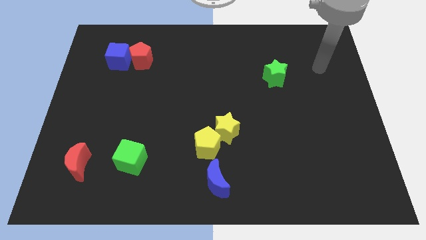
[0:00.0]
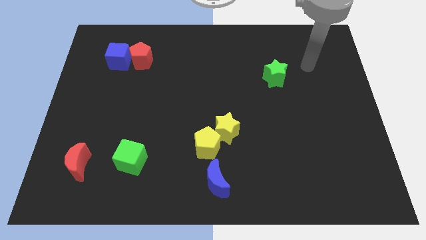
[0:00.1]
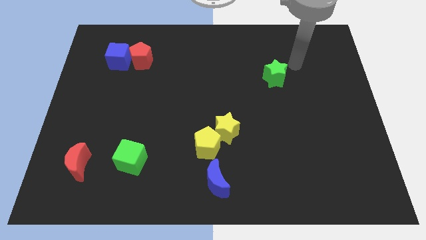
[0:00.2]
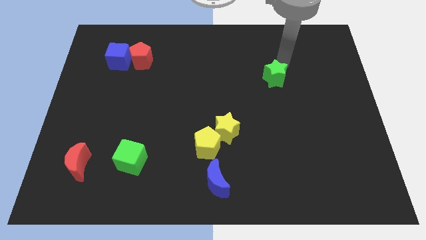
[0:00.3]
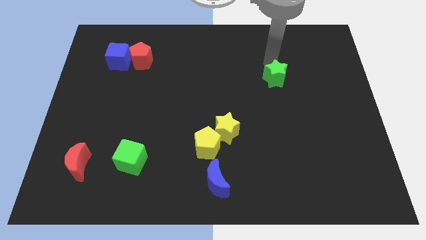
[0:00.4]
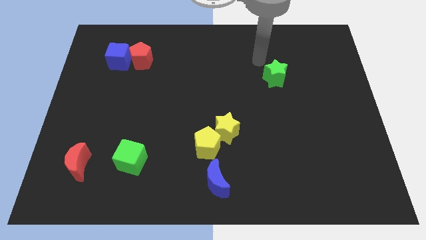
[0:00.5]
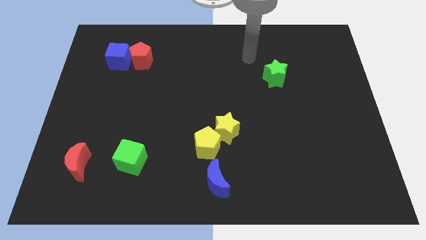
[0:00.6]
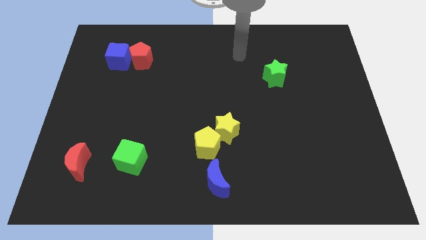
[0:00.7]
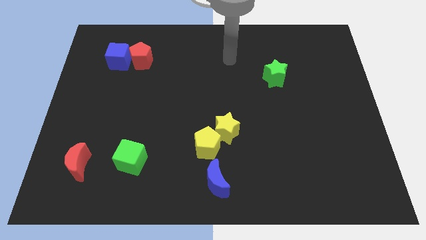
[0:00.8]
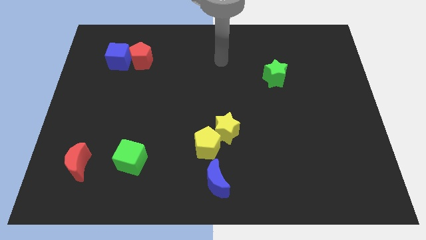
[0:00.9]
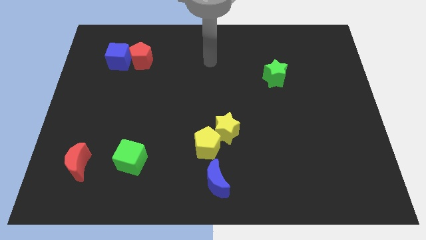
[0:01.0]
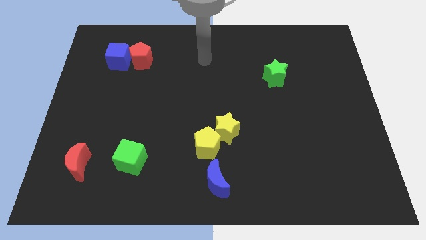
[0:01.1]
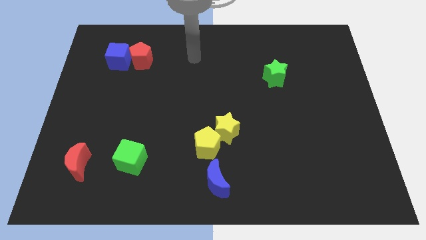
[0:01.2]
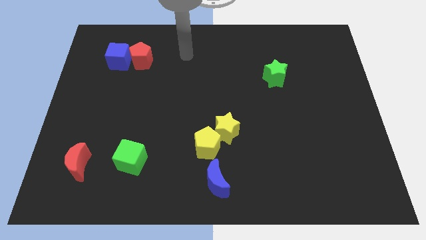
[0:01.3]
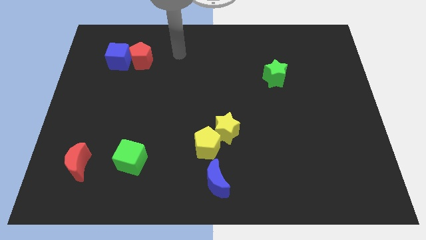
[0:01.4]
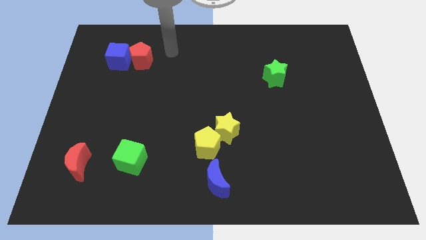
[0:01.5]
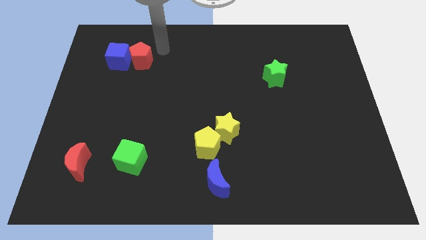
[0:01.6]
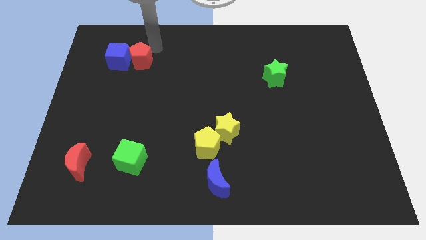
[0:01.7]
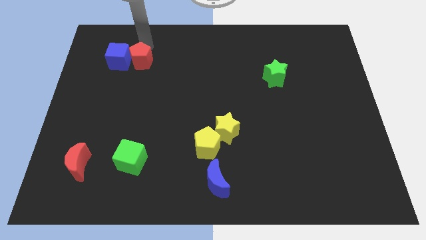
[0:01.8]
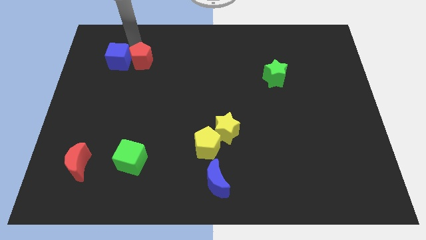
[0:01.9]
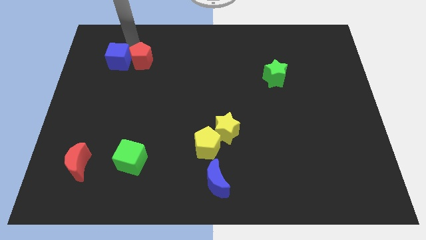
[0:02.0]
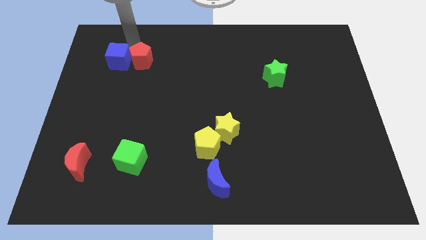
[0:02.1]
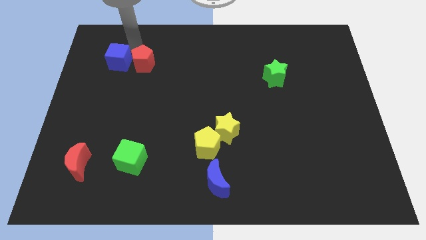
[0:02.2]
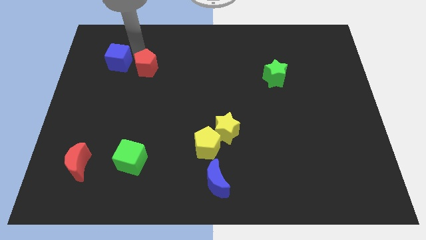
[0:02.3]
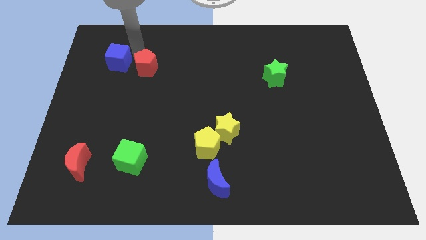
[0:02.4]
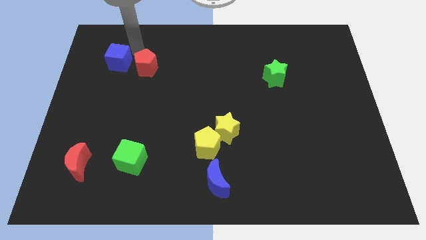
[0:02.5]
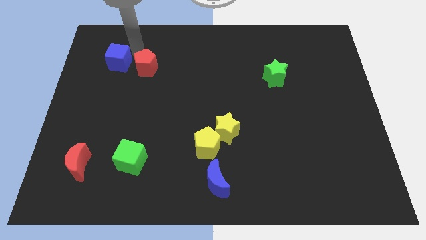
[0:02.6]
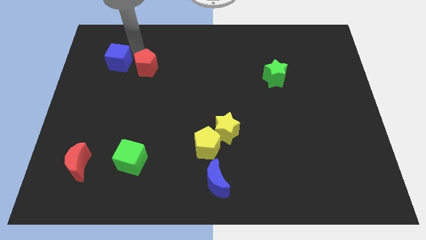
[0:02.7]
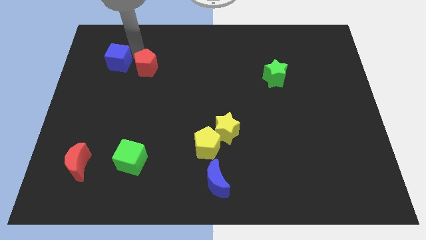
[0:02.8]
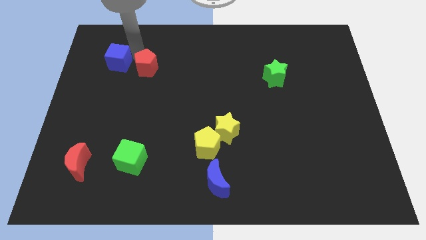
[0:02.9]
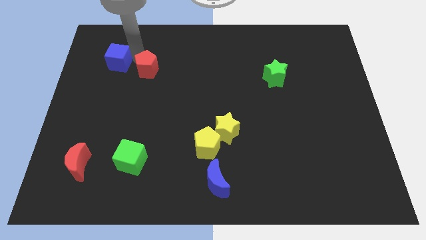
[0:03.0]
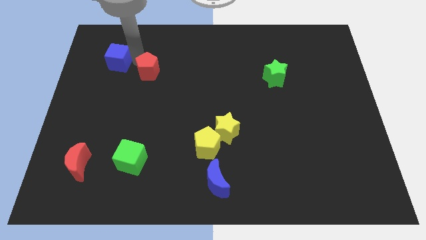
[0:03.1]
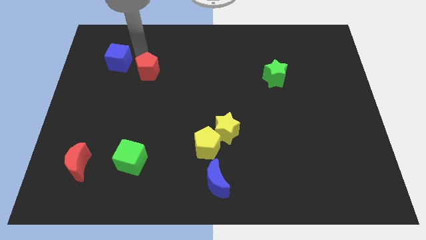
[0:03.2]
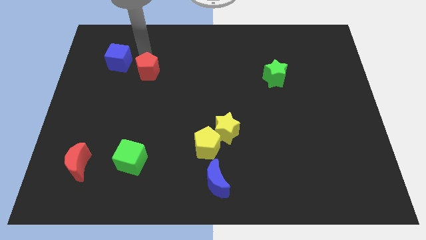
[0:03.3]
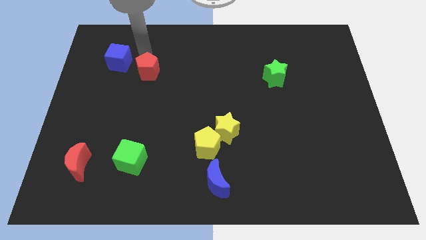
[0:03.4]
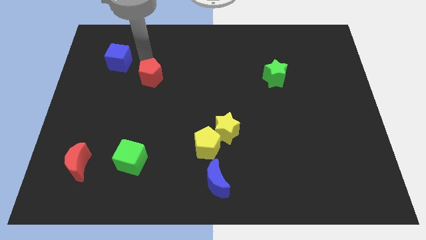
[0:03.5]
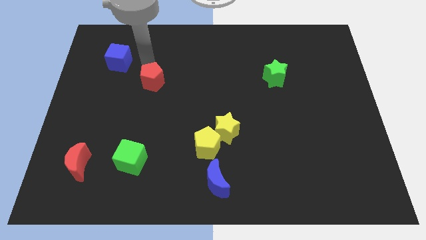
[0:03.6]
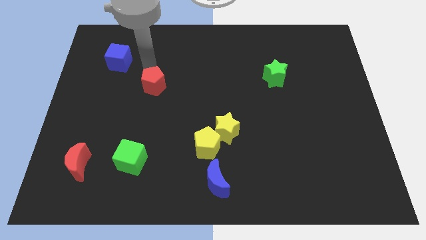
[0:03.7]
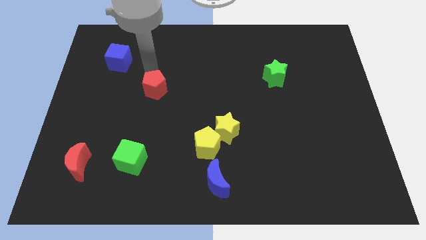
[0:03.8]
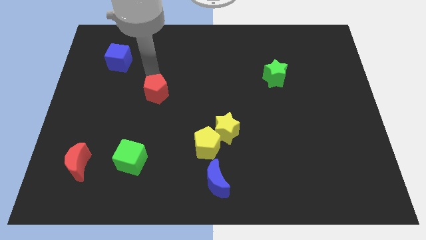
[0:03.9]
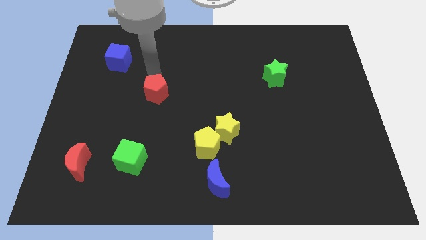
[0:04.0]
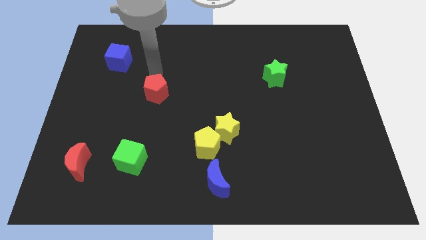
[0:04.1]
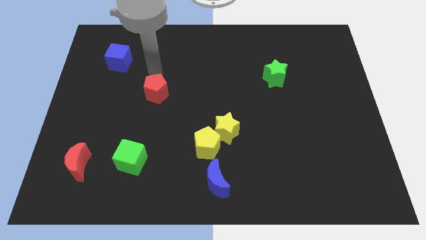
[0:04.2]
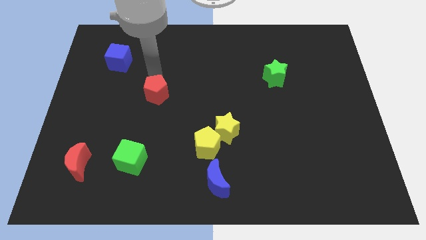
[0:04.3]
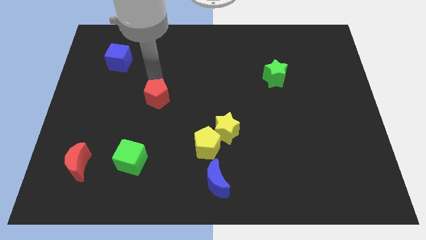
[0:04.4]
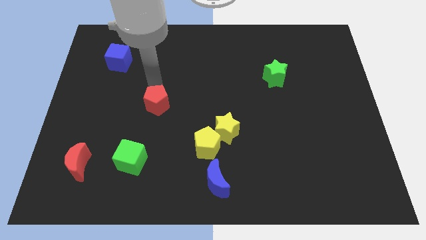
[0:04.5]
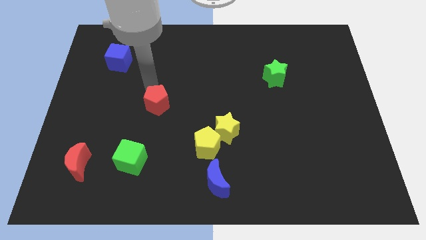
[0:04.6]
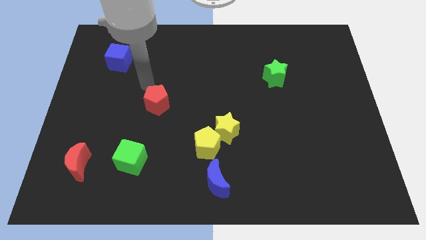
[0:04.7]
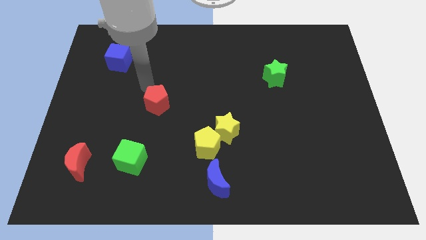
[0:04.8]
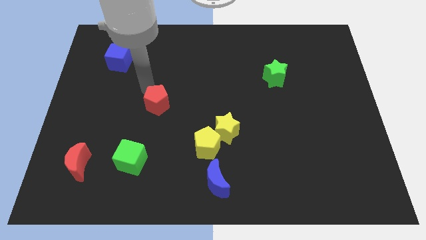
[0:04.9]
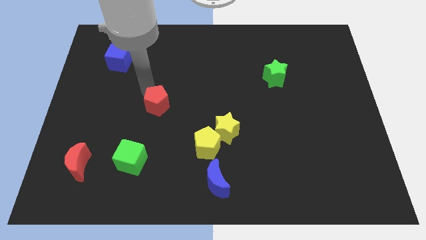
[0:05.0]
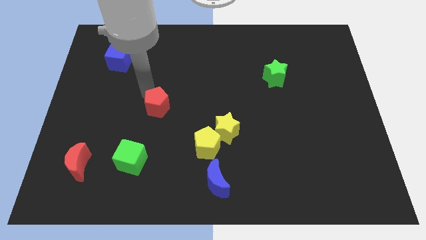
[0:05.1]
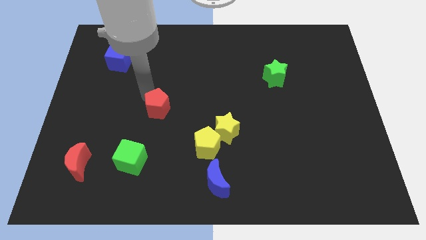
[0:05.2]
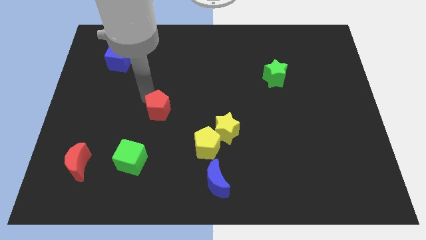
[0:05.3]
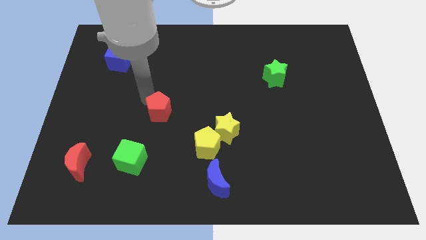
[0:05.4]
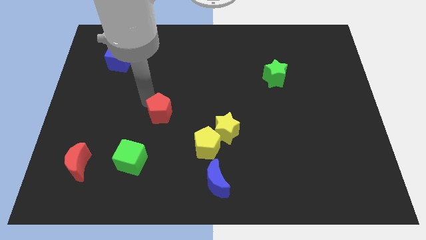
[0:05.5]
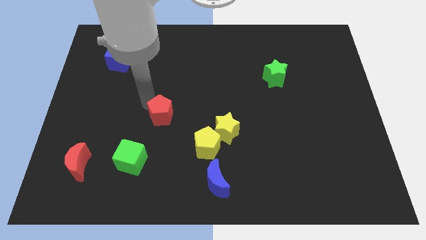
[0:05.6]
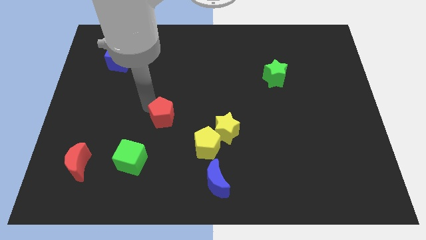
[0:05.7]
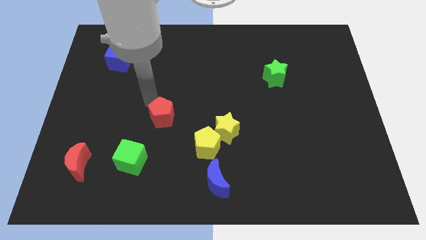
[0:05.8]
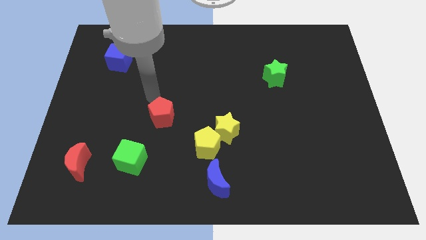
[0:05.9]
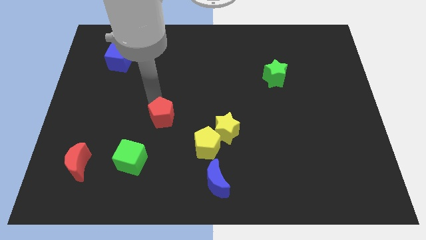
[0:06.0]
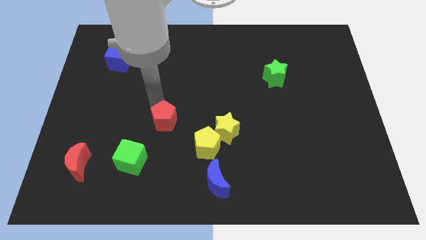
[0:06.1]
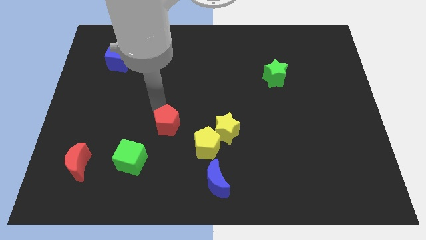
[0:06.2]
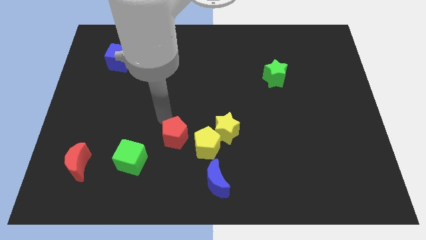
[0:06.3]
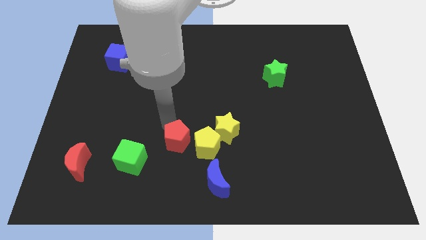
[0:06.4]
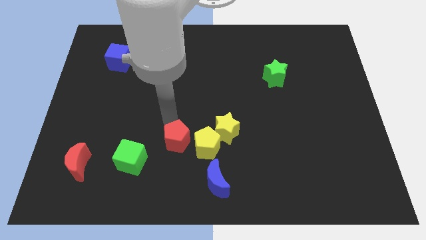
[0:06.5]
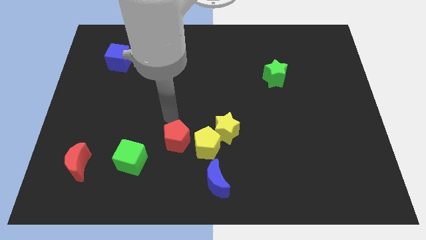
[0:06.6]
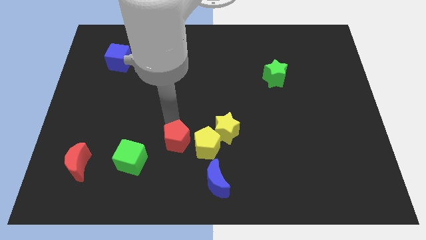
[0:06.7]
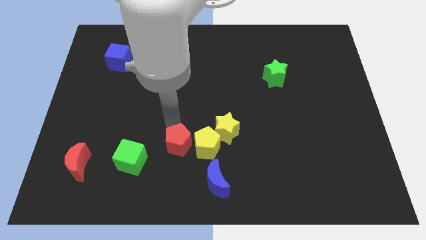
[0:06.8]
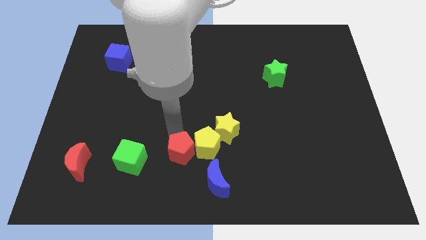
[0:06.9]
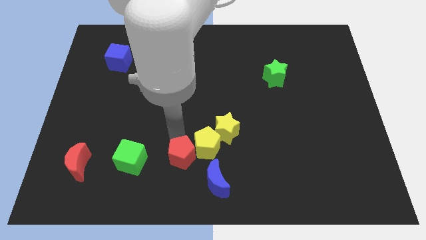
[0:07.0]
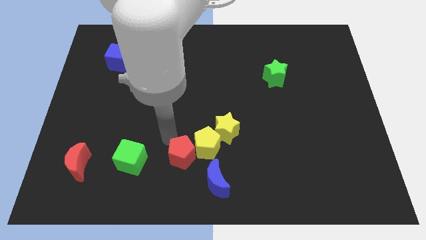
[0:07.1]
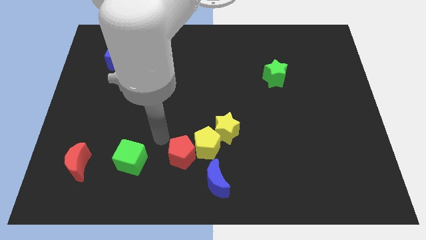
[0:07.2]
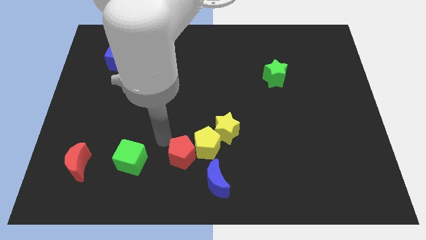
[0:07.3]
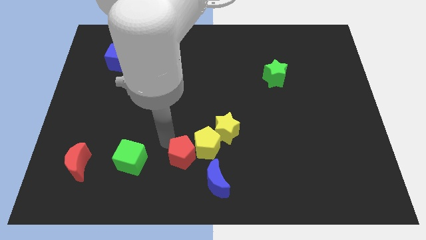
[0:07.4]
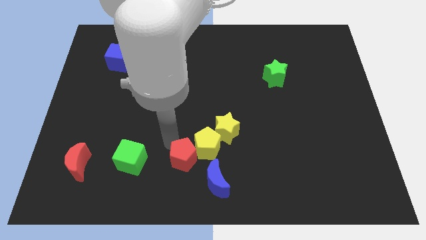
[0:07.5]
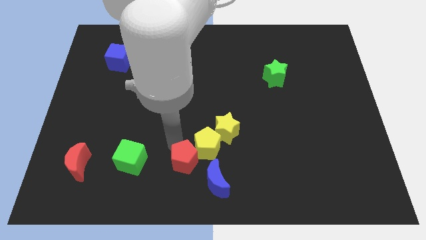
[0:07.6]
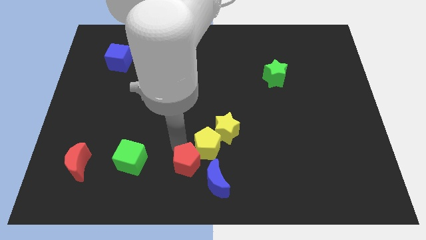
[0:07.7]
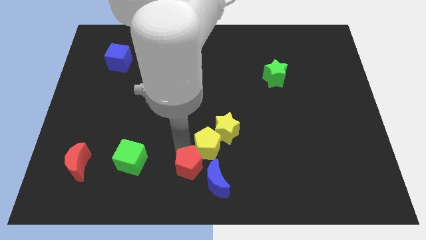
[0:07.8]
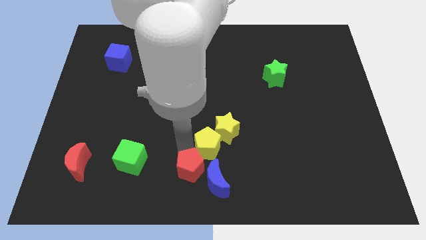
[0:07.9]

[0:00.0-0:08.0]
slide the red pentagon next to the blue moon

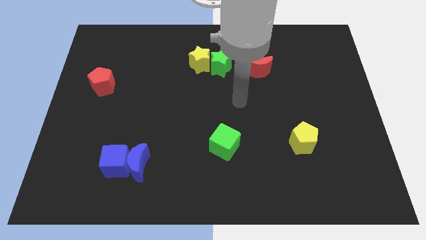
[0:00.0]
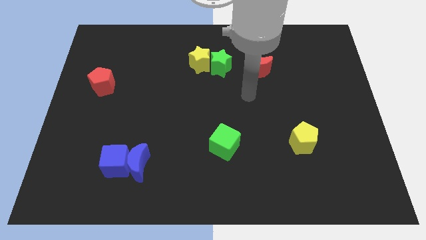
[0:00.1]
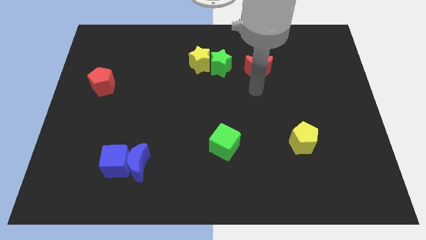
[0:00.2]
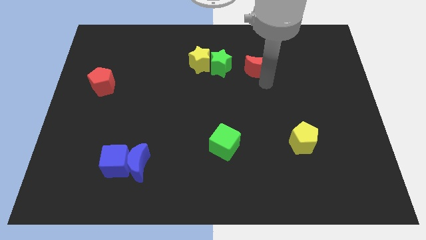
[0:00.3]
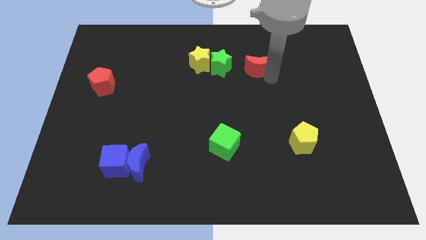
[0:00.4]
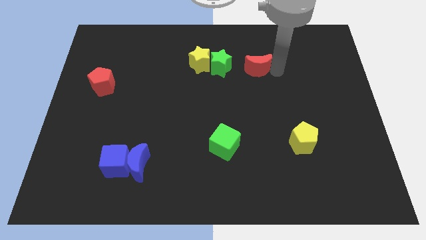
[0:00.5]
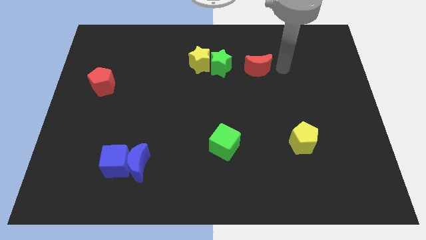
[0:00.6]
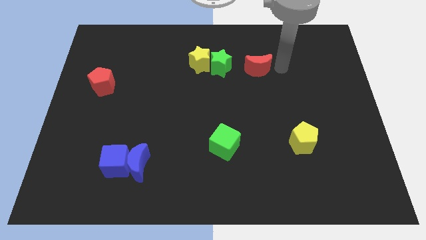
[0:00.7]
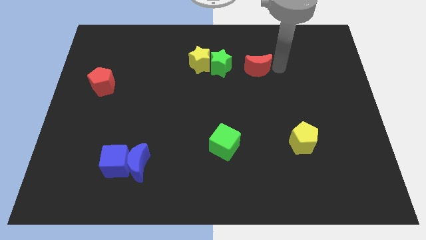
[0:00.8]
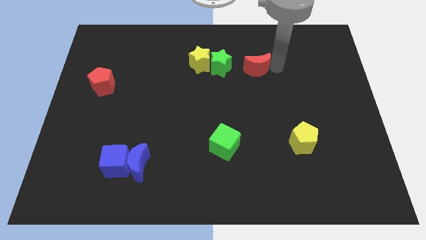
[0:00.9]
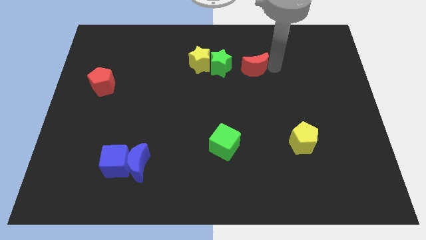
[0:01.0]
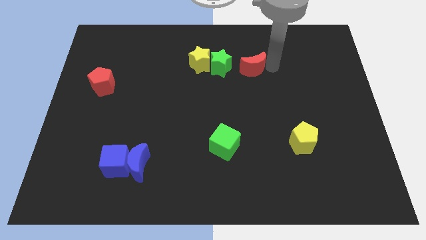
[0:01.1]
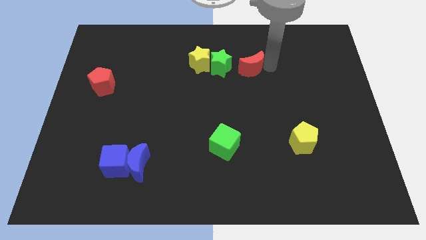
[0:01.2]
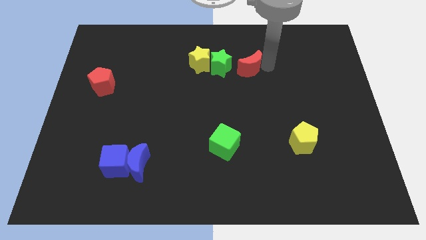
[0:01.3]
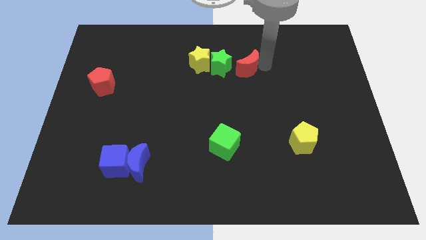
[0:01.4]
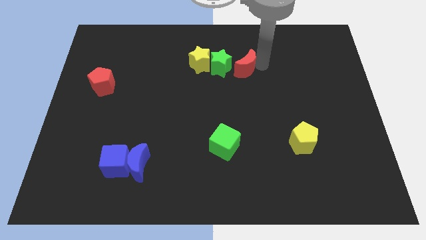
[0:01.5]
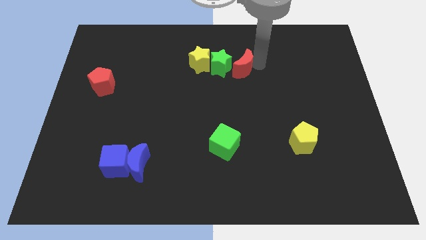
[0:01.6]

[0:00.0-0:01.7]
push the red moon to the green star
